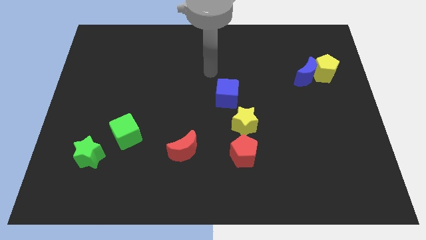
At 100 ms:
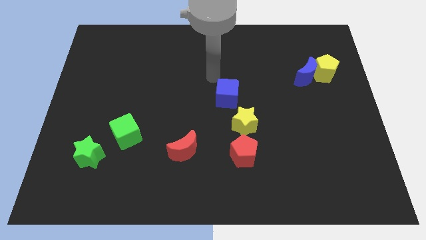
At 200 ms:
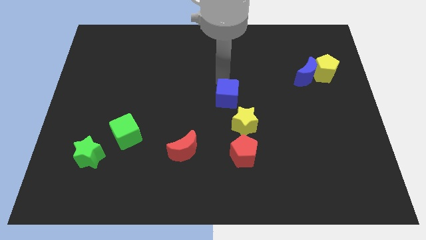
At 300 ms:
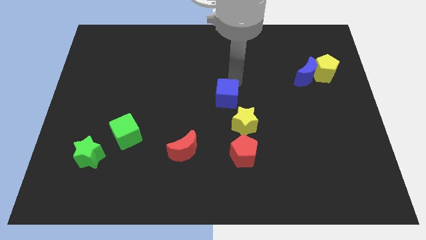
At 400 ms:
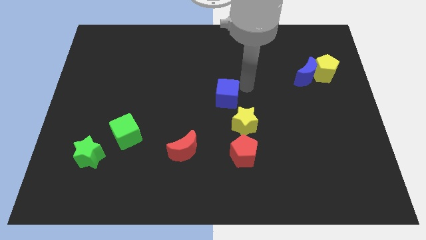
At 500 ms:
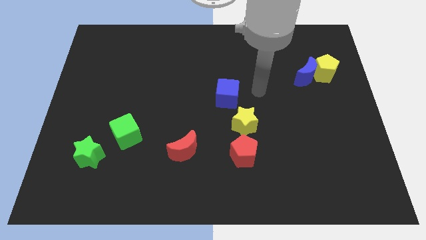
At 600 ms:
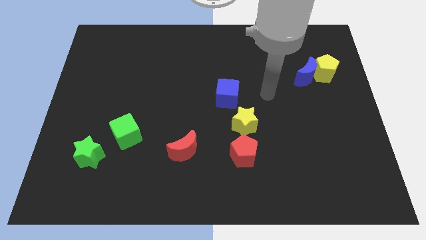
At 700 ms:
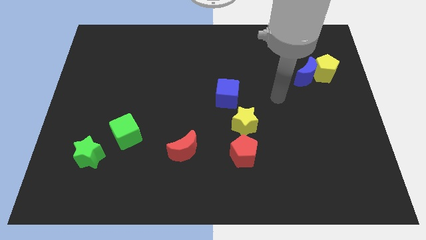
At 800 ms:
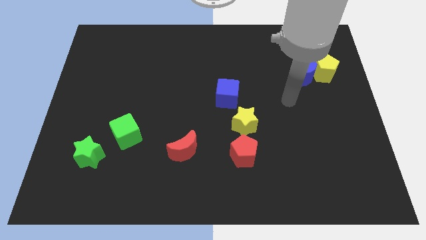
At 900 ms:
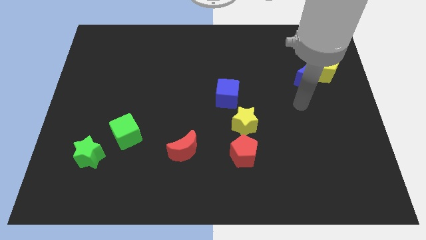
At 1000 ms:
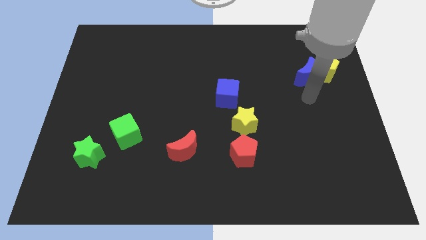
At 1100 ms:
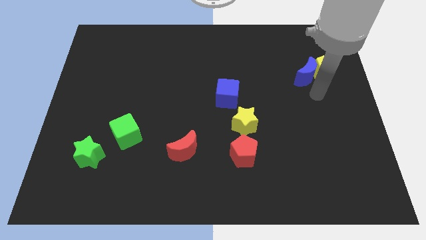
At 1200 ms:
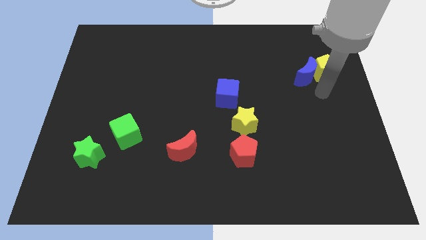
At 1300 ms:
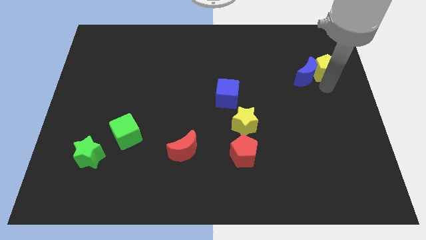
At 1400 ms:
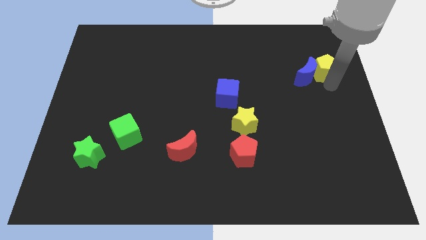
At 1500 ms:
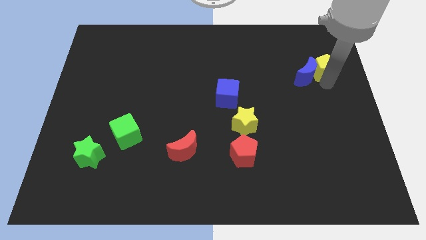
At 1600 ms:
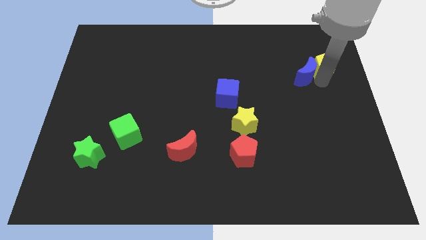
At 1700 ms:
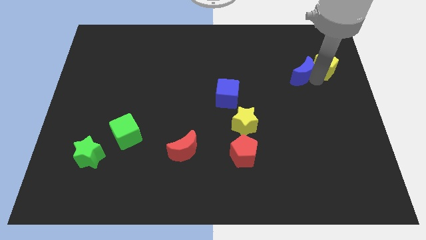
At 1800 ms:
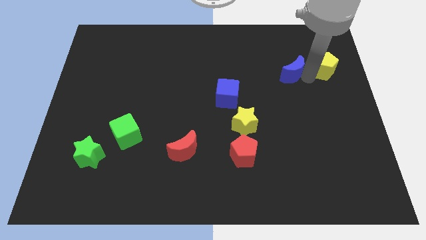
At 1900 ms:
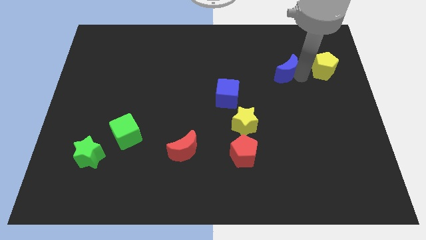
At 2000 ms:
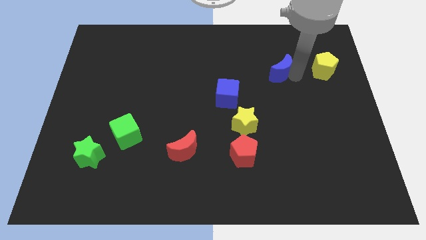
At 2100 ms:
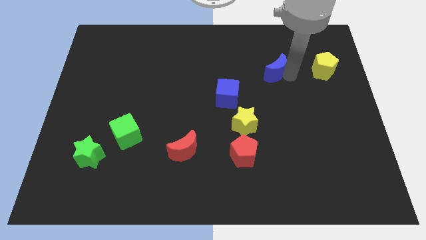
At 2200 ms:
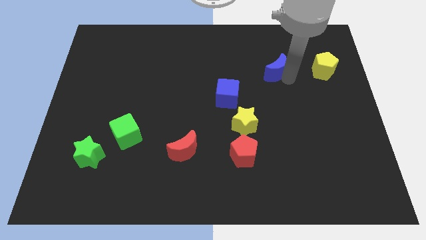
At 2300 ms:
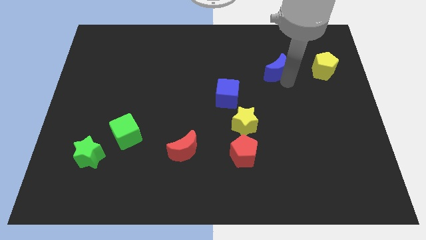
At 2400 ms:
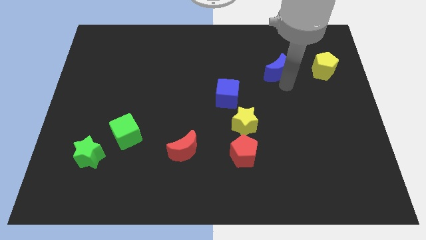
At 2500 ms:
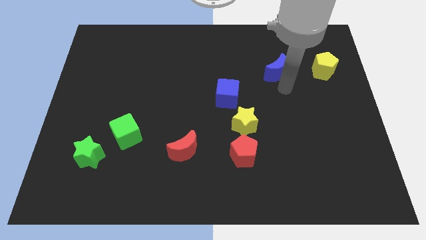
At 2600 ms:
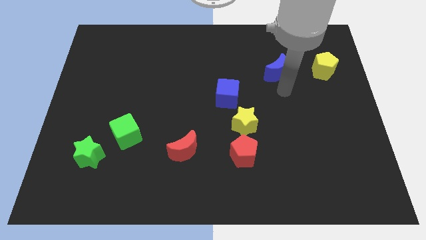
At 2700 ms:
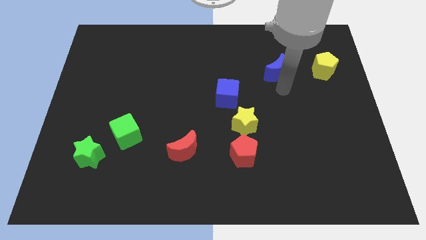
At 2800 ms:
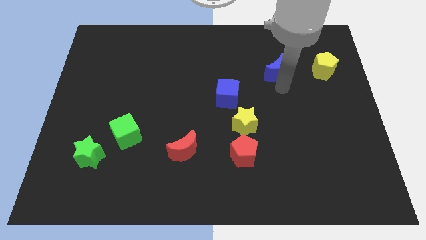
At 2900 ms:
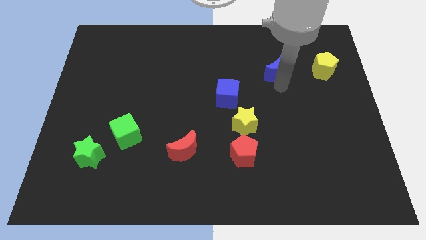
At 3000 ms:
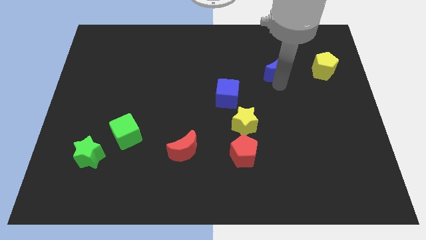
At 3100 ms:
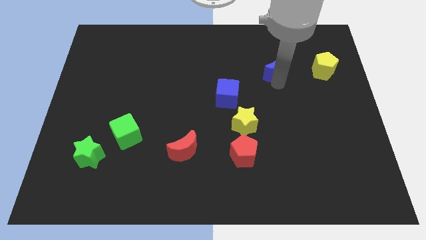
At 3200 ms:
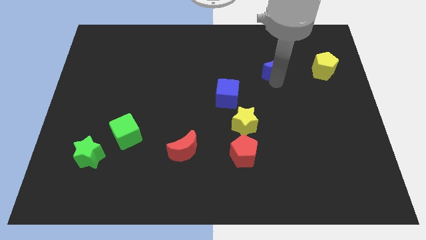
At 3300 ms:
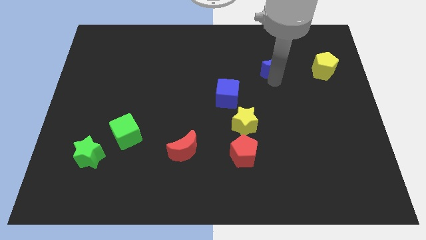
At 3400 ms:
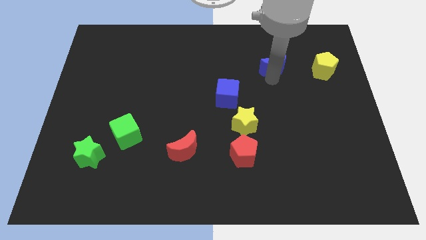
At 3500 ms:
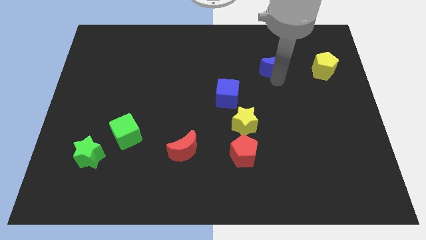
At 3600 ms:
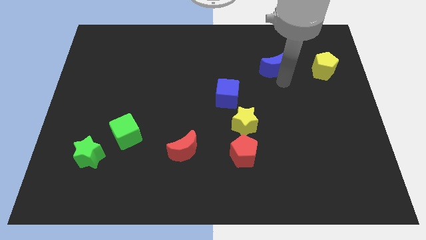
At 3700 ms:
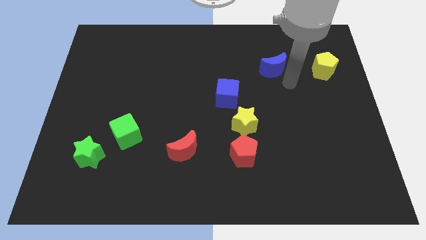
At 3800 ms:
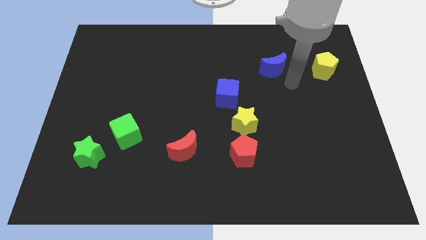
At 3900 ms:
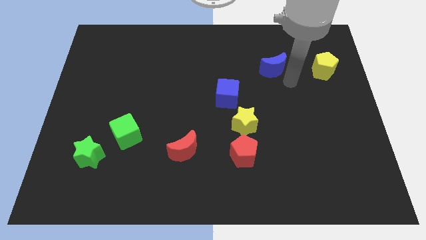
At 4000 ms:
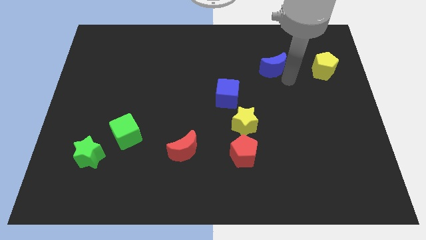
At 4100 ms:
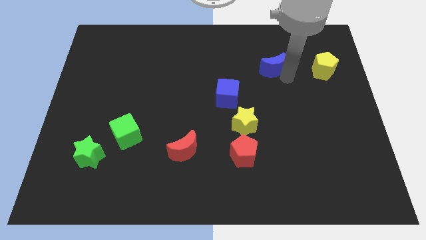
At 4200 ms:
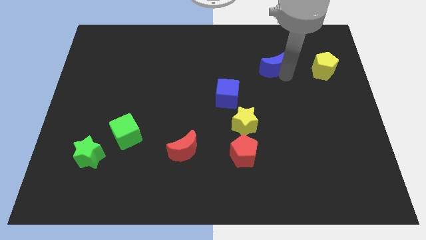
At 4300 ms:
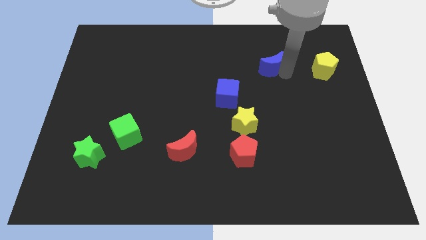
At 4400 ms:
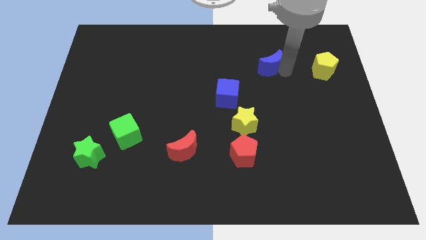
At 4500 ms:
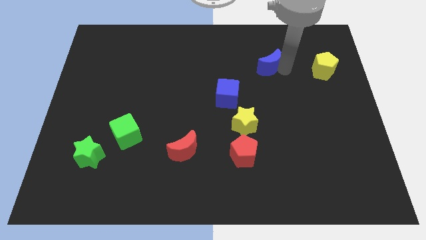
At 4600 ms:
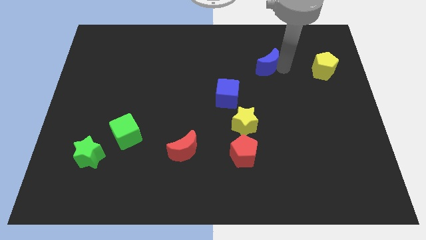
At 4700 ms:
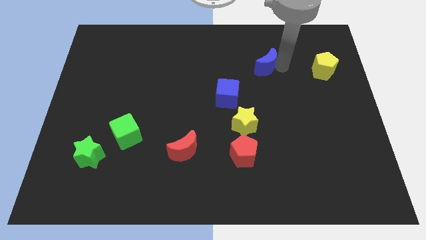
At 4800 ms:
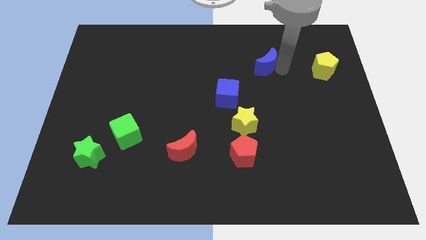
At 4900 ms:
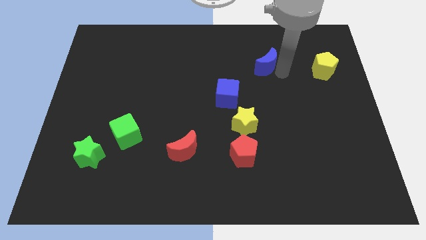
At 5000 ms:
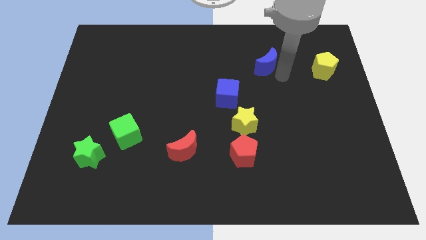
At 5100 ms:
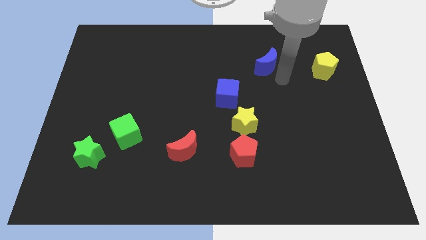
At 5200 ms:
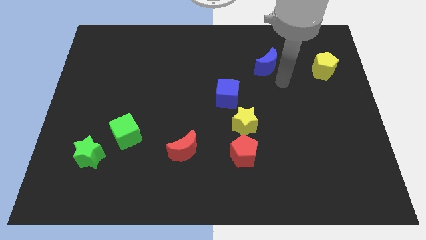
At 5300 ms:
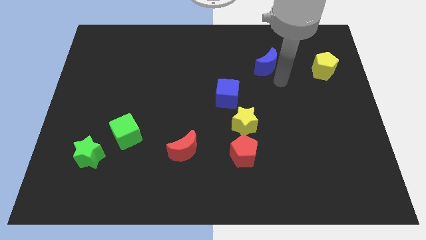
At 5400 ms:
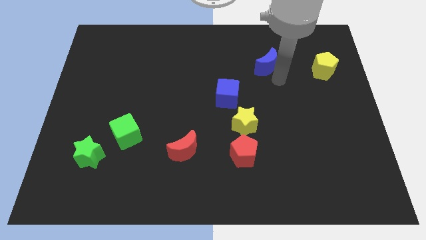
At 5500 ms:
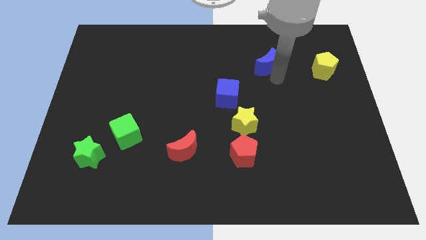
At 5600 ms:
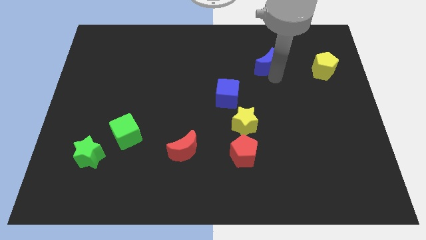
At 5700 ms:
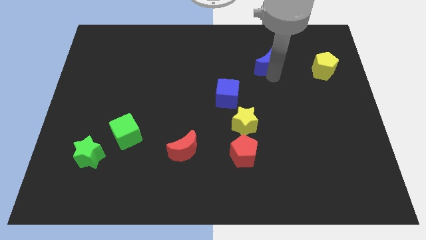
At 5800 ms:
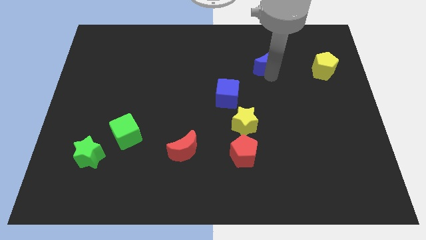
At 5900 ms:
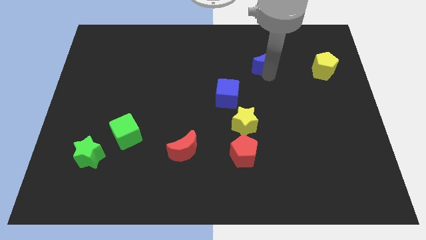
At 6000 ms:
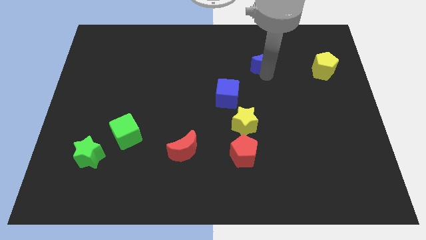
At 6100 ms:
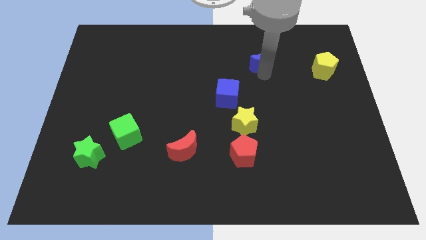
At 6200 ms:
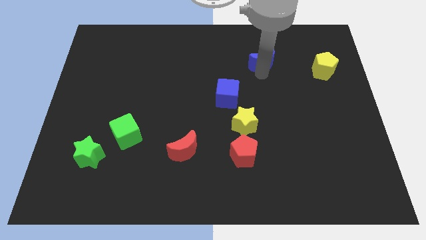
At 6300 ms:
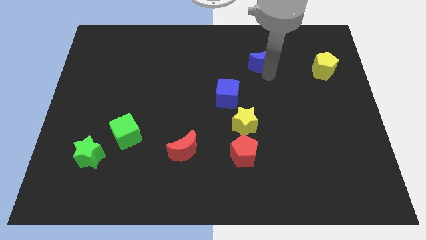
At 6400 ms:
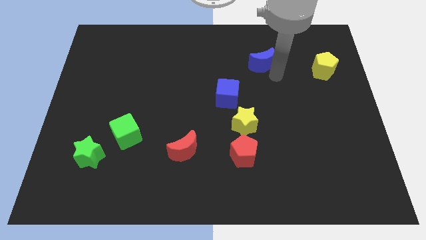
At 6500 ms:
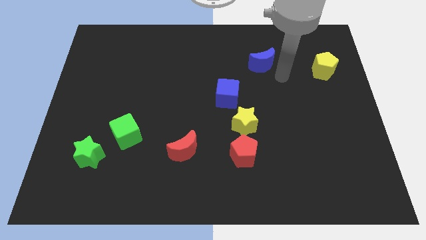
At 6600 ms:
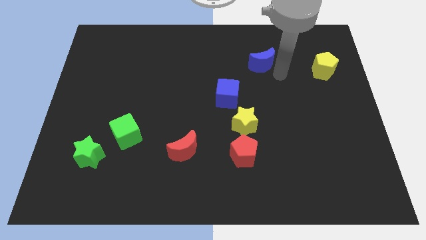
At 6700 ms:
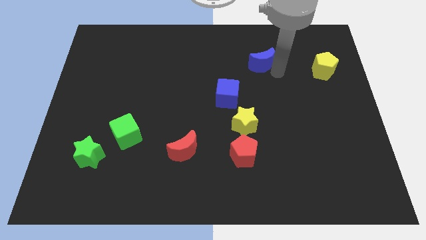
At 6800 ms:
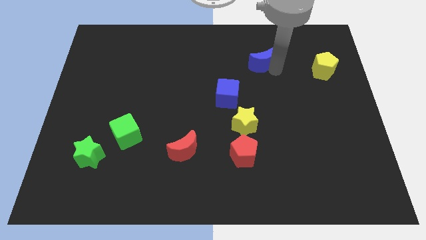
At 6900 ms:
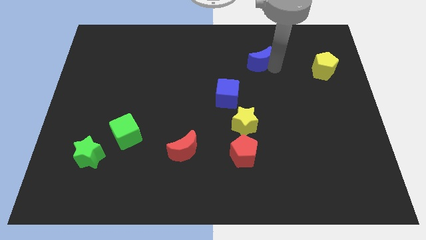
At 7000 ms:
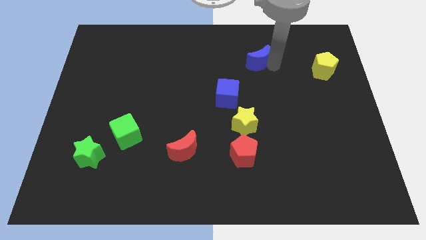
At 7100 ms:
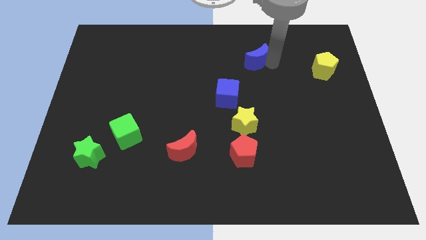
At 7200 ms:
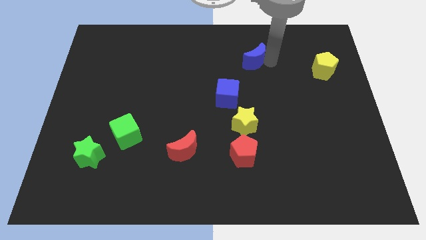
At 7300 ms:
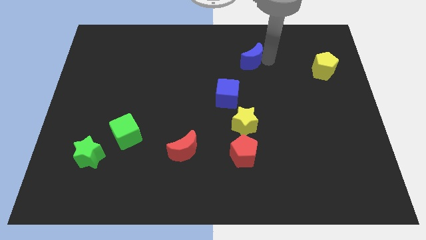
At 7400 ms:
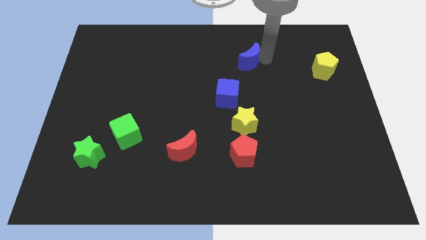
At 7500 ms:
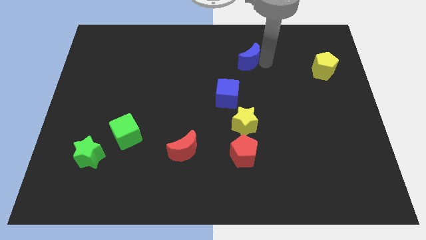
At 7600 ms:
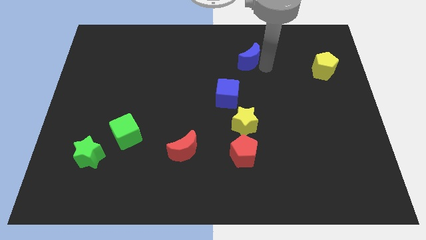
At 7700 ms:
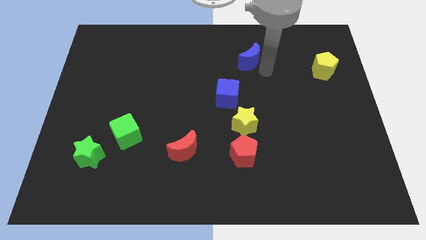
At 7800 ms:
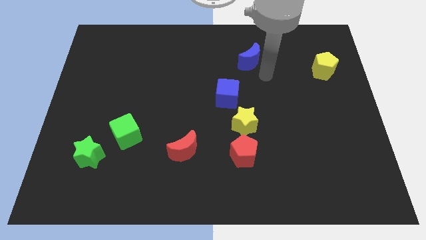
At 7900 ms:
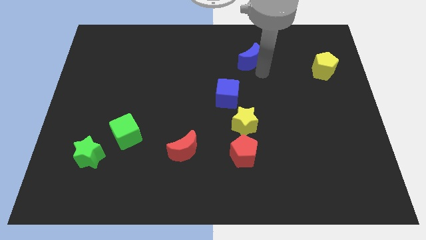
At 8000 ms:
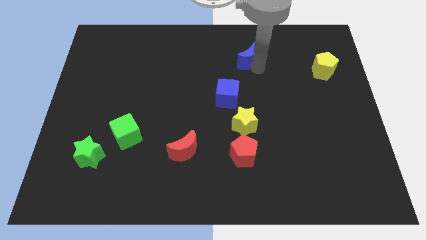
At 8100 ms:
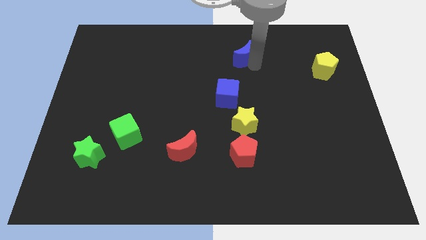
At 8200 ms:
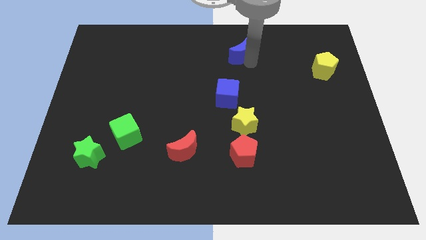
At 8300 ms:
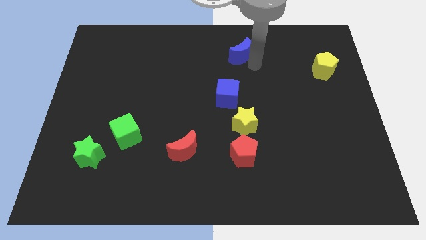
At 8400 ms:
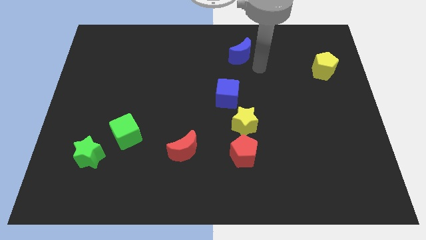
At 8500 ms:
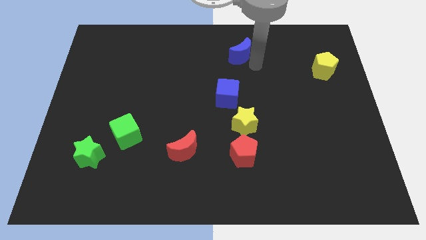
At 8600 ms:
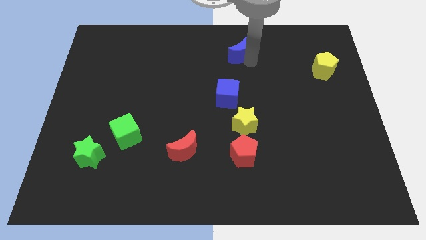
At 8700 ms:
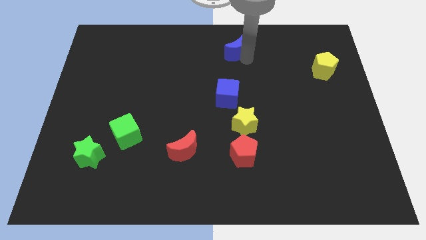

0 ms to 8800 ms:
put the blue moon to the top
